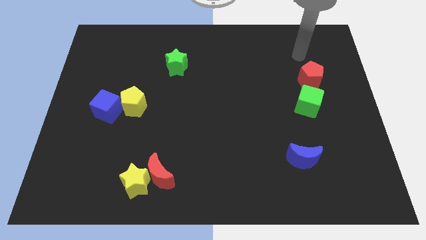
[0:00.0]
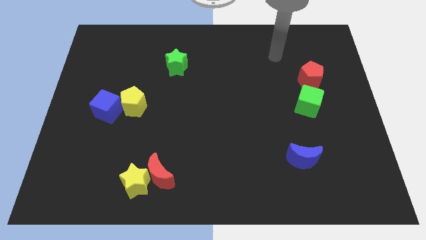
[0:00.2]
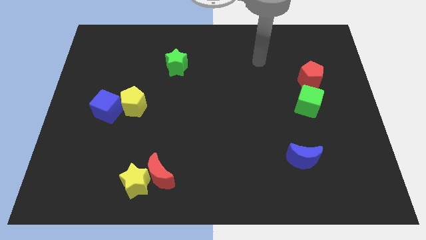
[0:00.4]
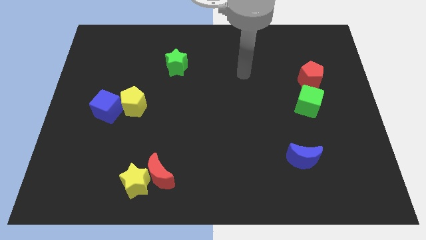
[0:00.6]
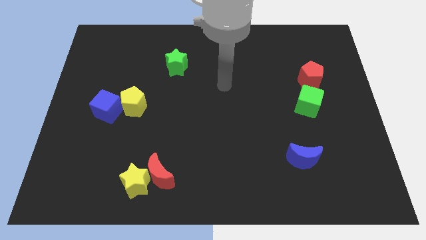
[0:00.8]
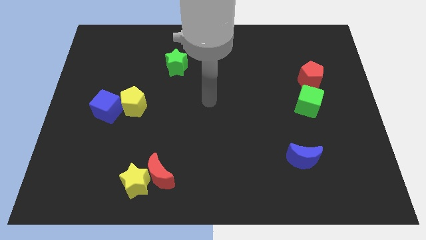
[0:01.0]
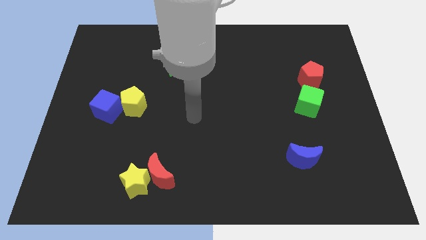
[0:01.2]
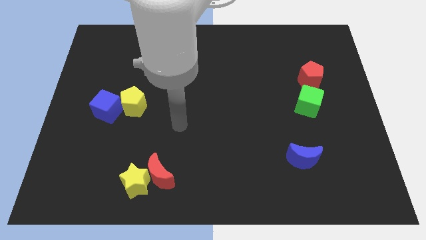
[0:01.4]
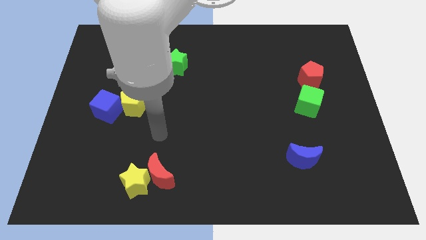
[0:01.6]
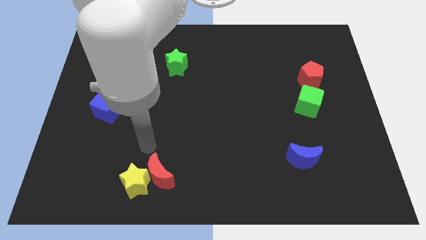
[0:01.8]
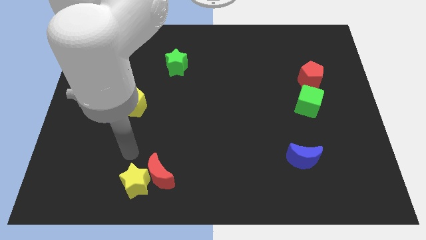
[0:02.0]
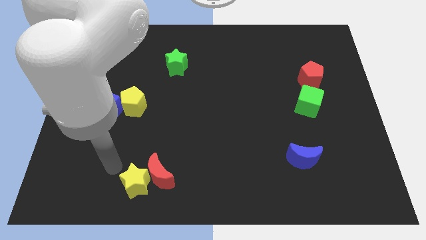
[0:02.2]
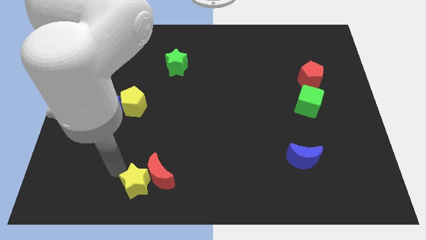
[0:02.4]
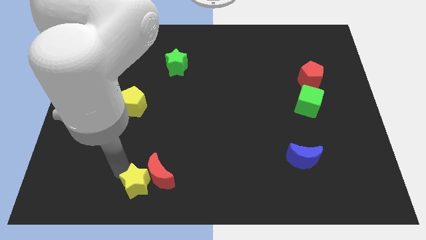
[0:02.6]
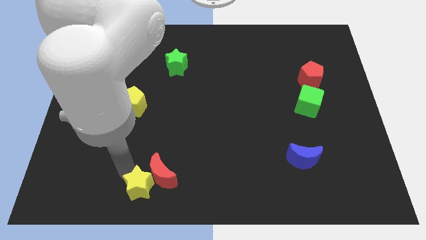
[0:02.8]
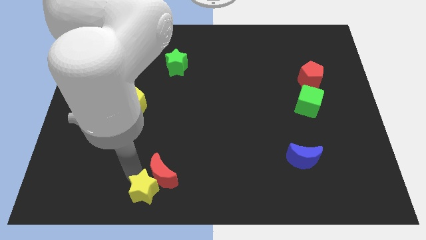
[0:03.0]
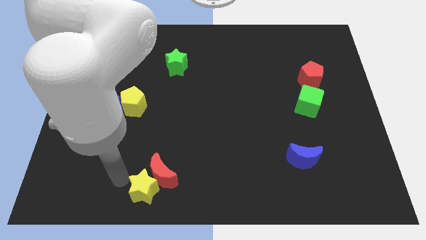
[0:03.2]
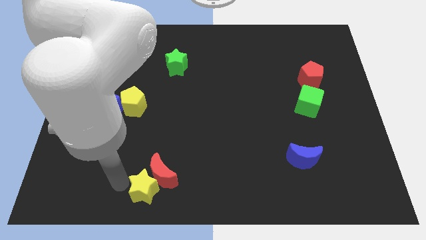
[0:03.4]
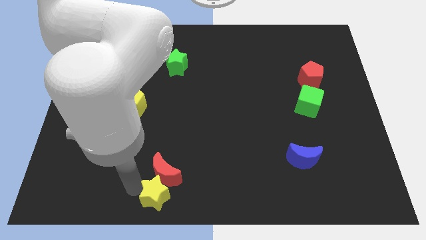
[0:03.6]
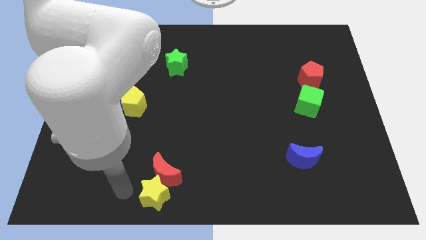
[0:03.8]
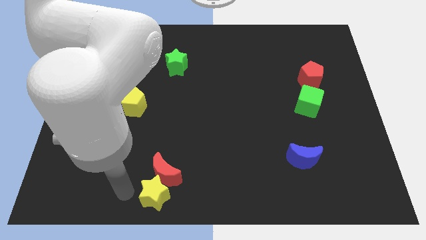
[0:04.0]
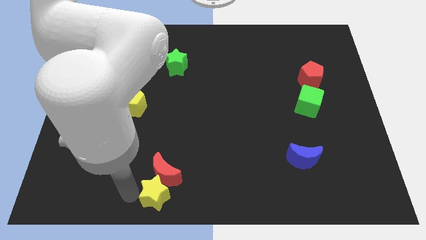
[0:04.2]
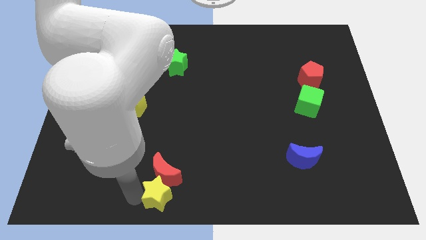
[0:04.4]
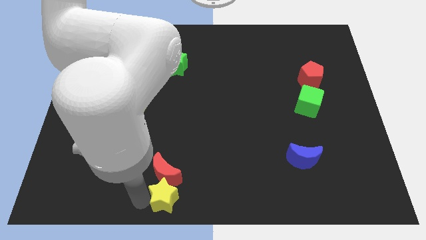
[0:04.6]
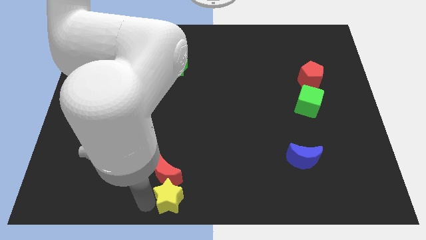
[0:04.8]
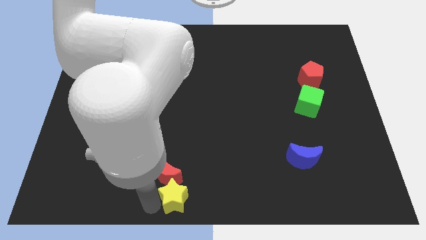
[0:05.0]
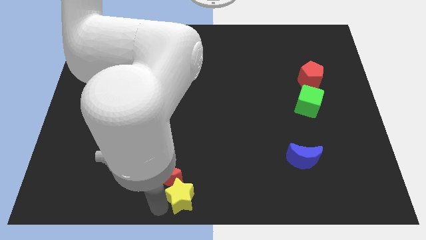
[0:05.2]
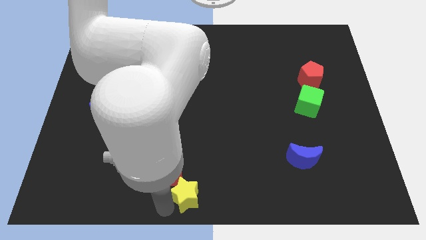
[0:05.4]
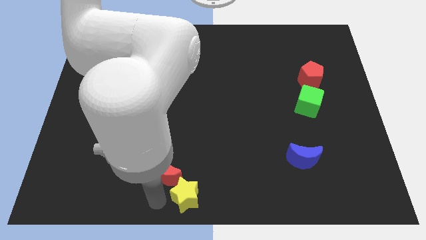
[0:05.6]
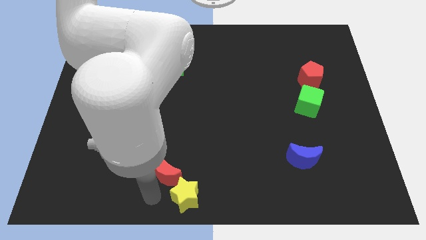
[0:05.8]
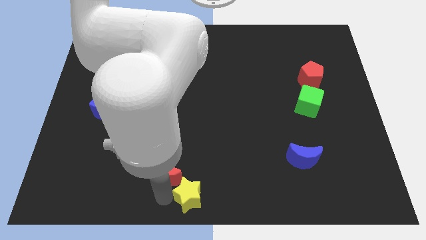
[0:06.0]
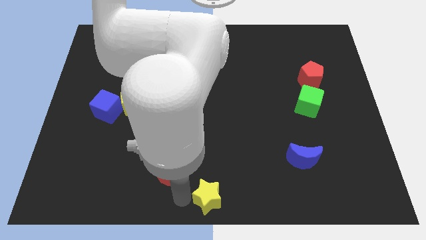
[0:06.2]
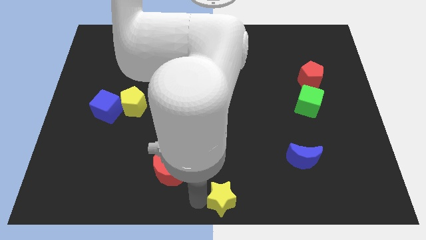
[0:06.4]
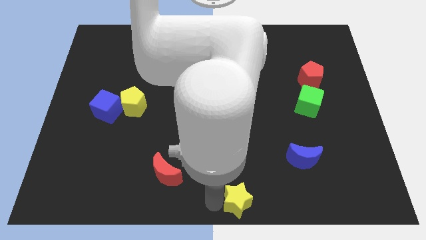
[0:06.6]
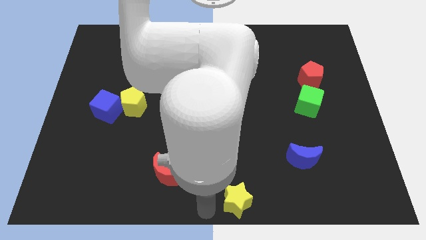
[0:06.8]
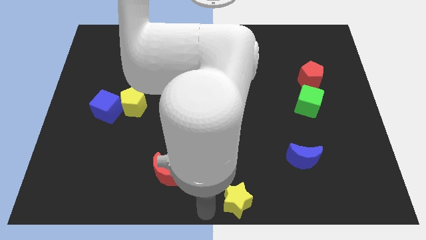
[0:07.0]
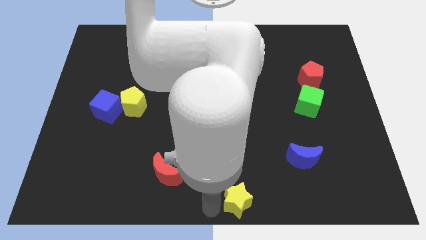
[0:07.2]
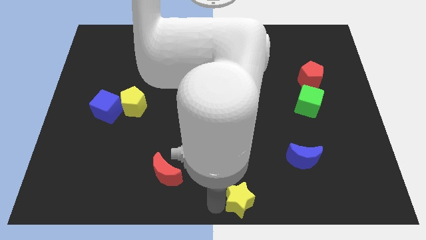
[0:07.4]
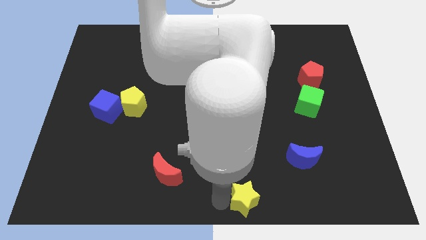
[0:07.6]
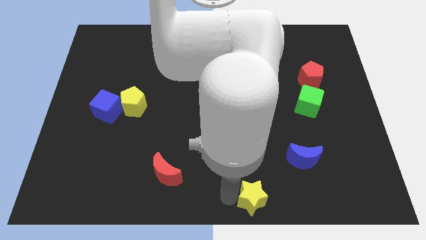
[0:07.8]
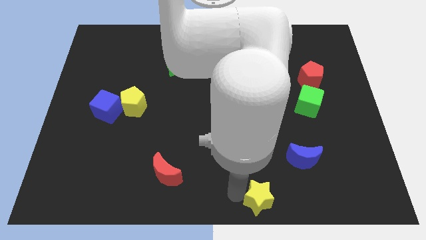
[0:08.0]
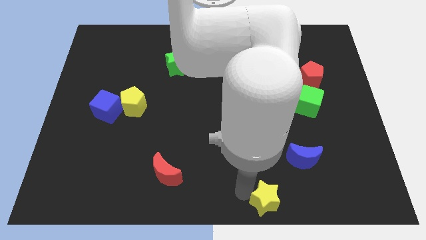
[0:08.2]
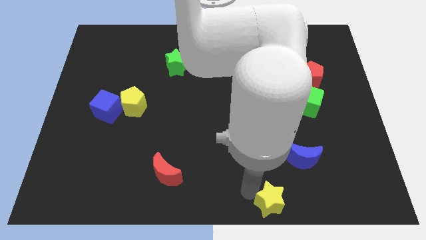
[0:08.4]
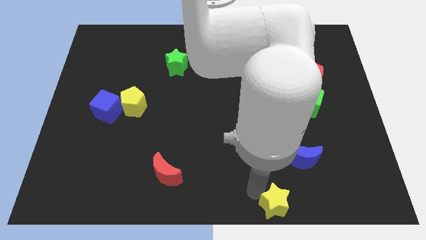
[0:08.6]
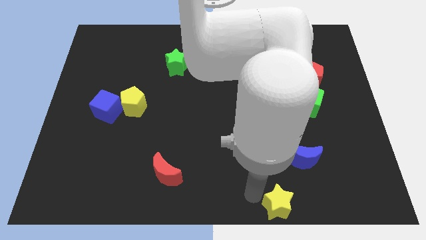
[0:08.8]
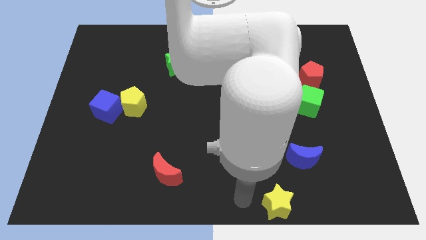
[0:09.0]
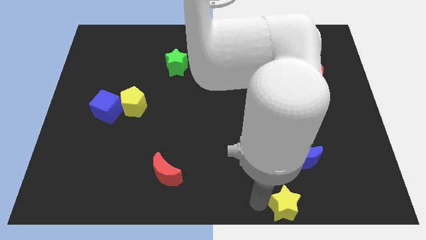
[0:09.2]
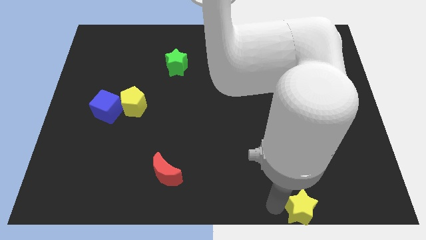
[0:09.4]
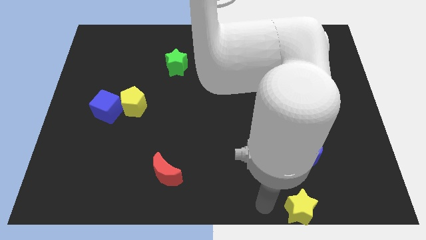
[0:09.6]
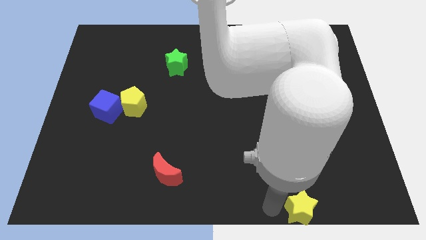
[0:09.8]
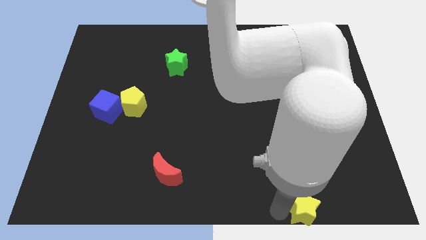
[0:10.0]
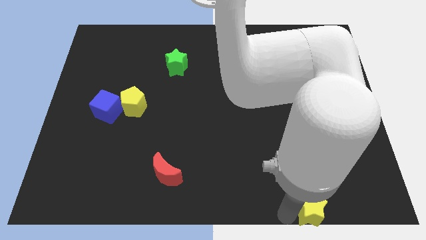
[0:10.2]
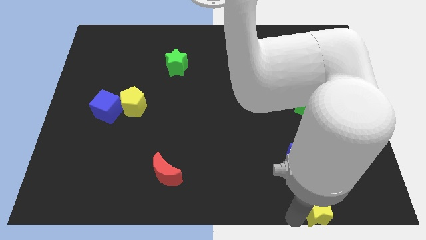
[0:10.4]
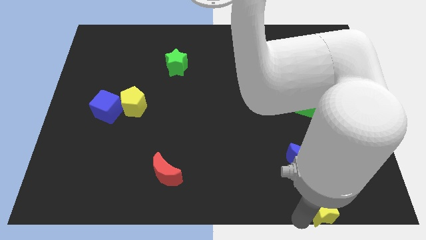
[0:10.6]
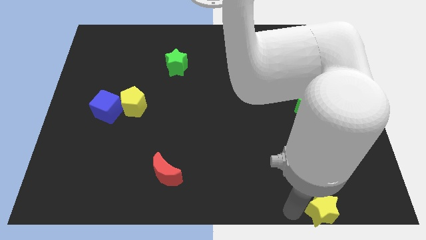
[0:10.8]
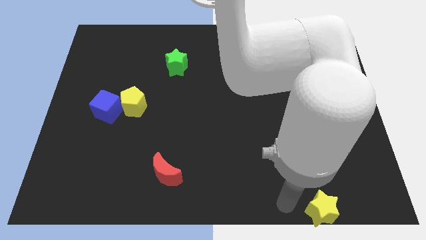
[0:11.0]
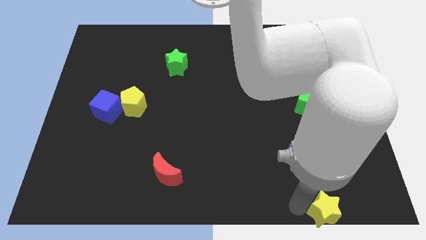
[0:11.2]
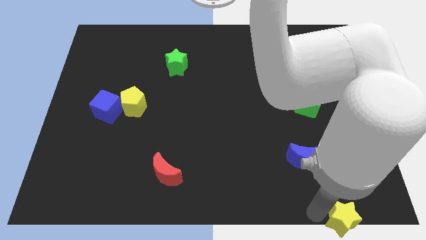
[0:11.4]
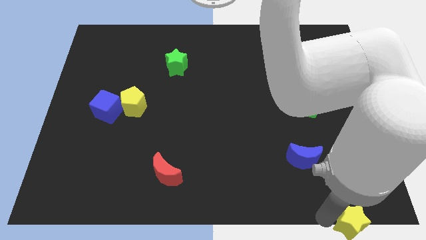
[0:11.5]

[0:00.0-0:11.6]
put the yellow star to the lower right corner
